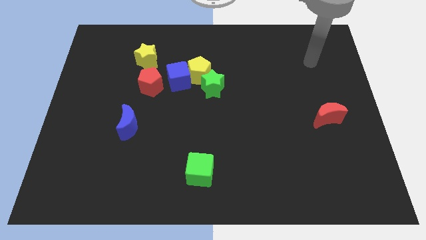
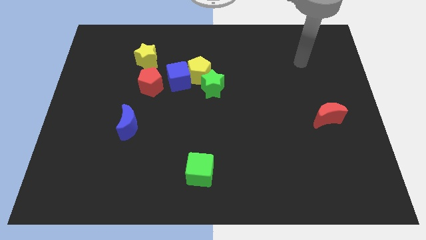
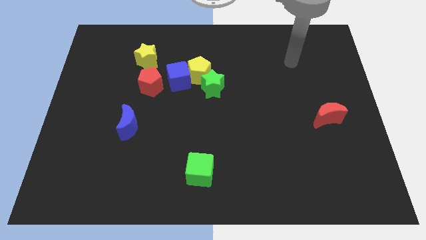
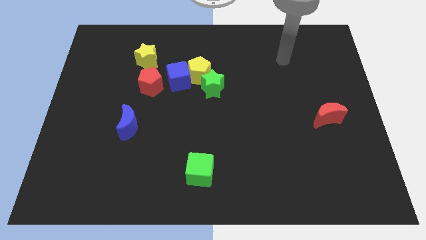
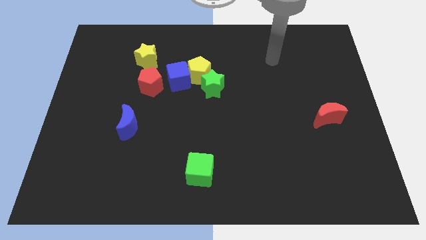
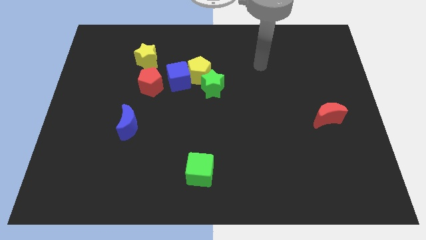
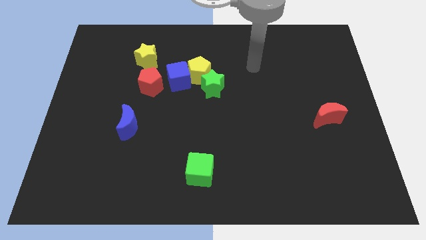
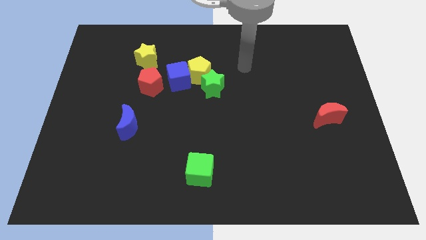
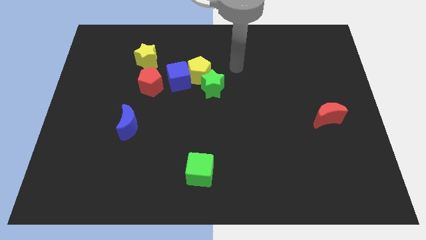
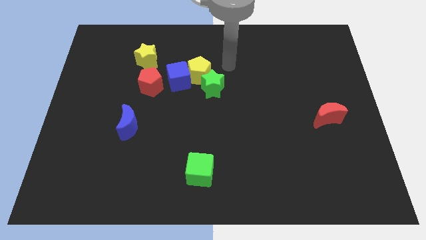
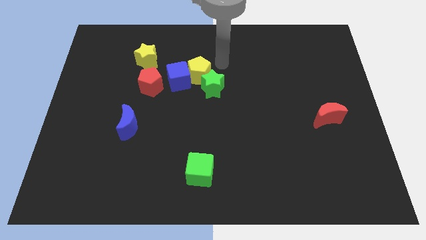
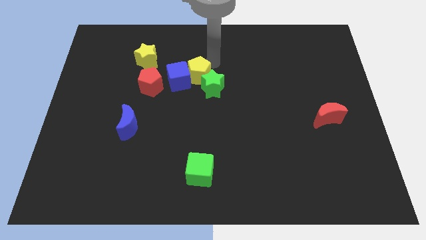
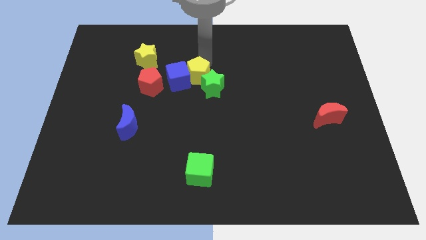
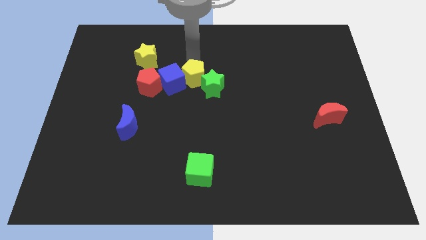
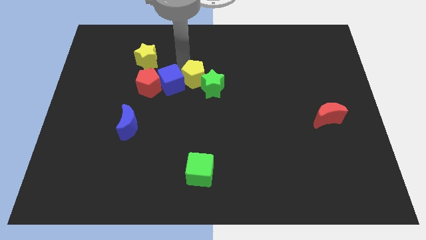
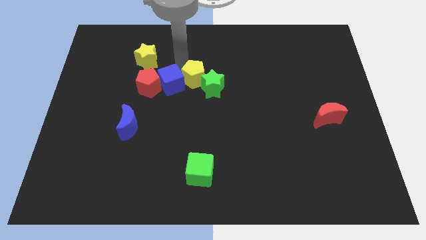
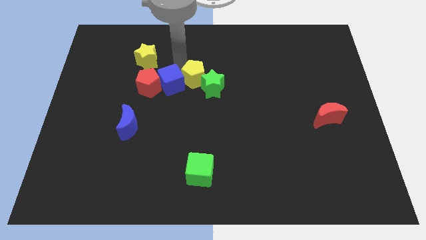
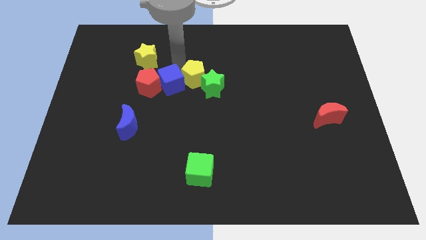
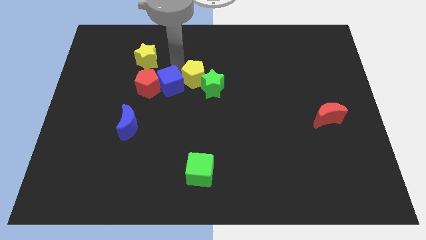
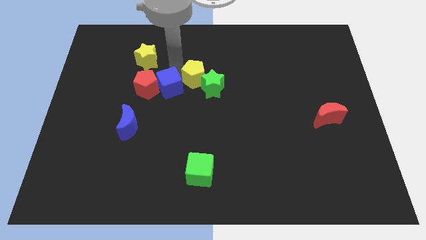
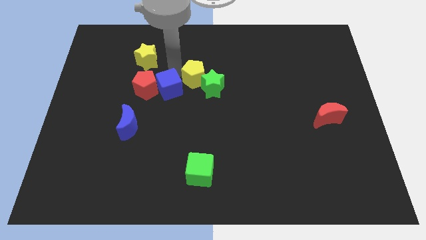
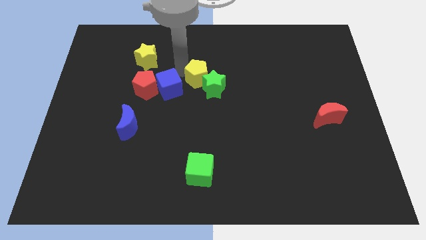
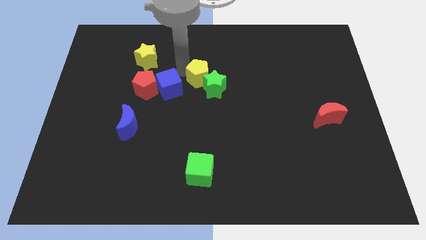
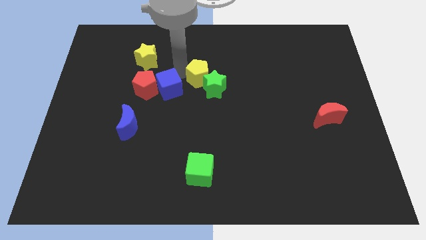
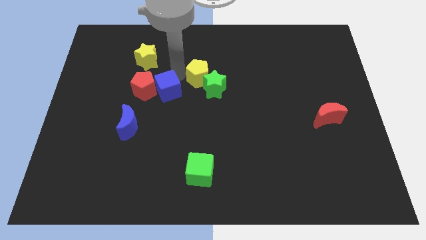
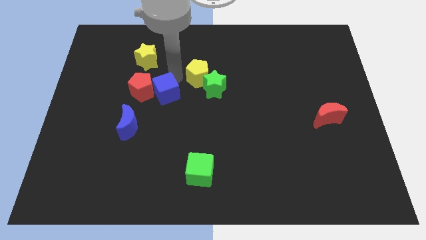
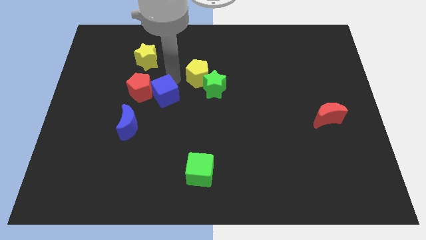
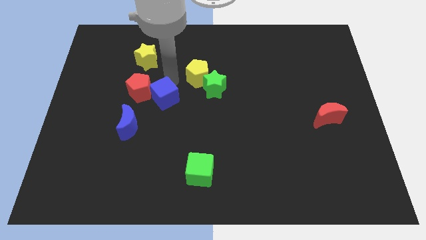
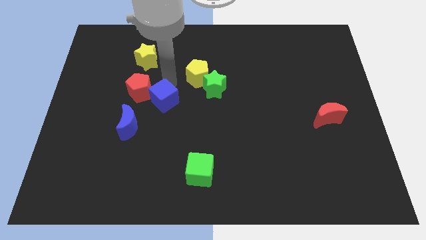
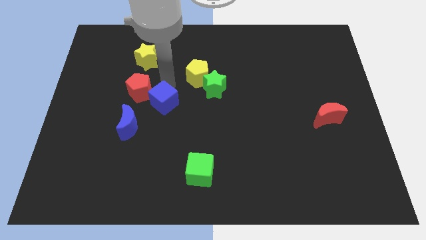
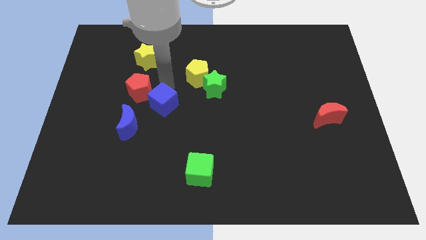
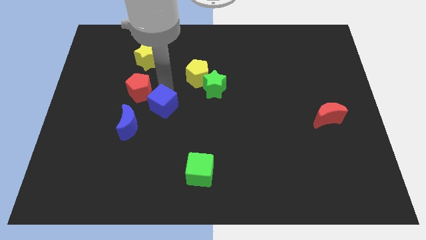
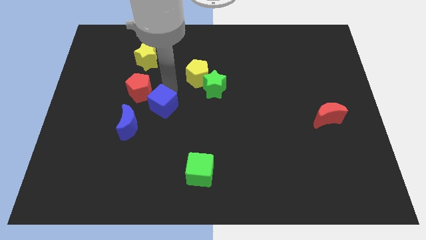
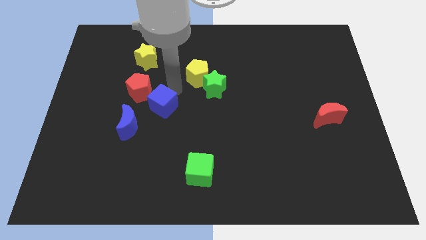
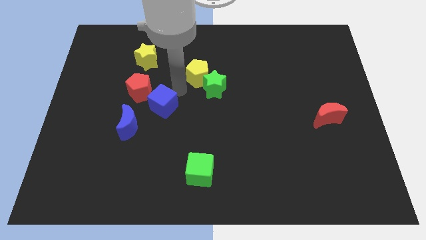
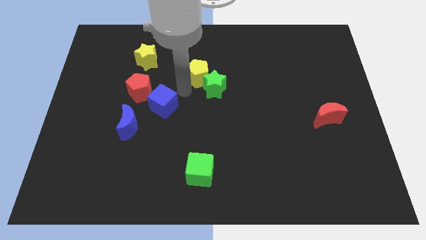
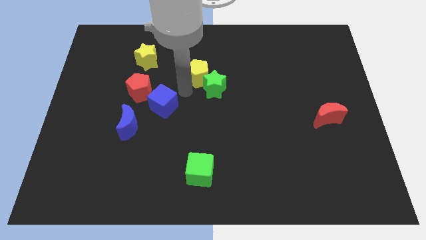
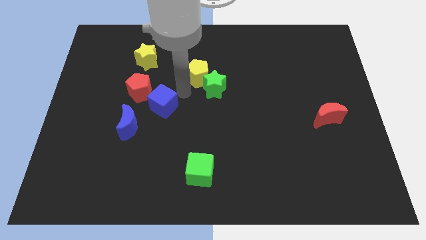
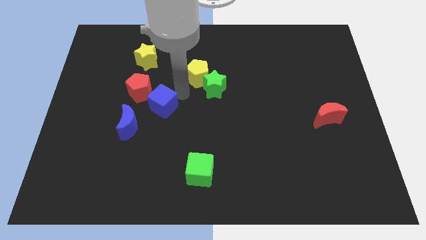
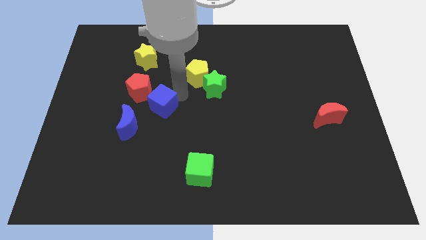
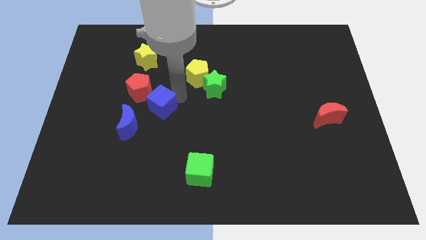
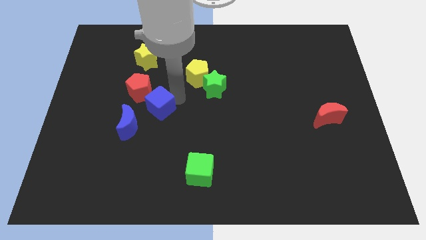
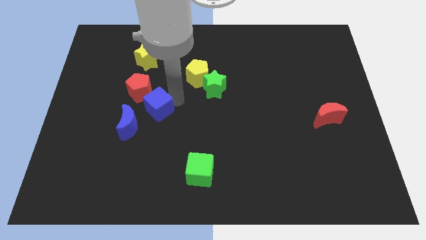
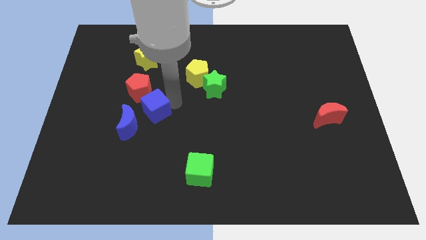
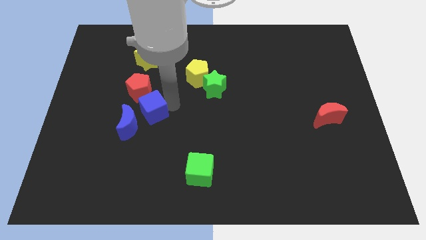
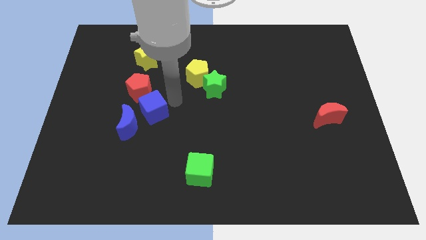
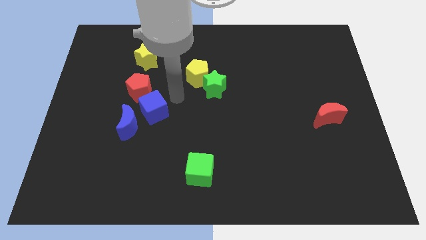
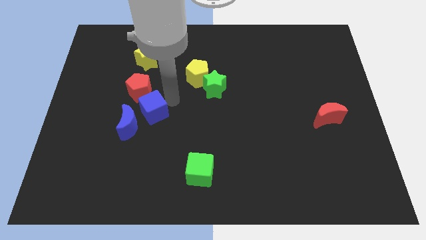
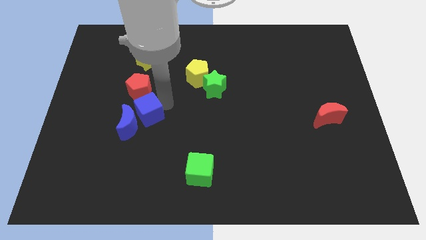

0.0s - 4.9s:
push the blue cube towards the blue moon

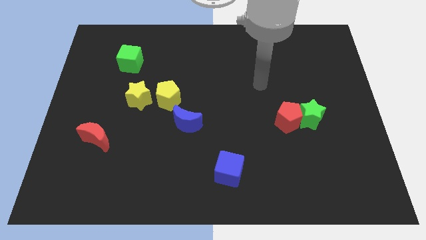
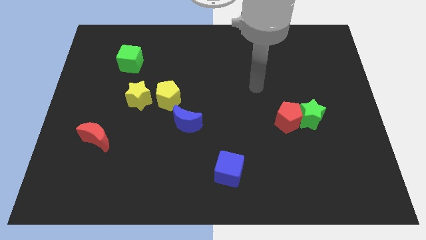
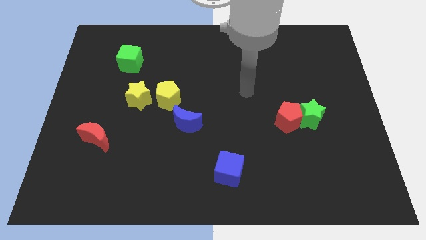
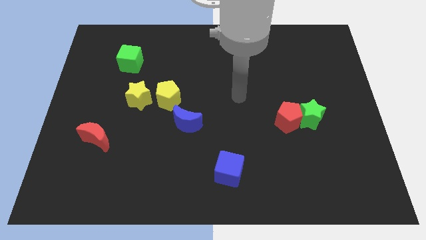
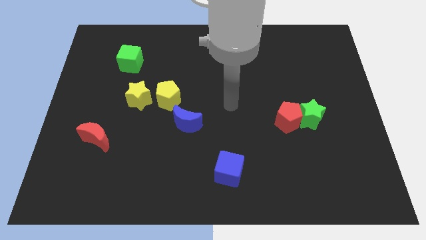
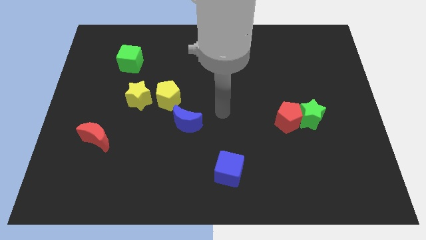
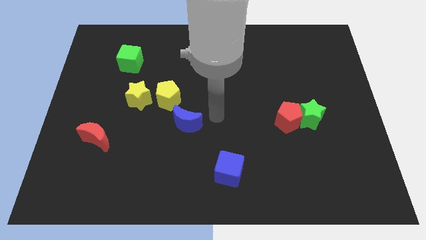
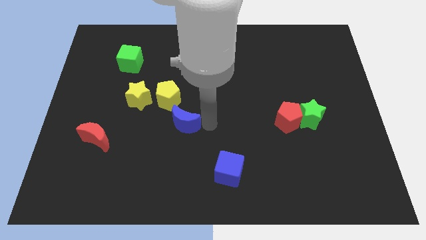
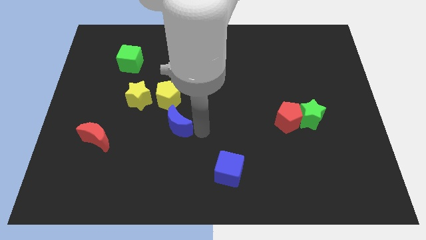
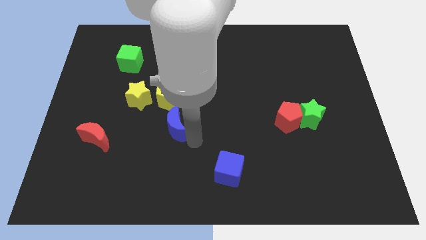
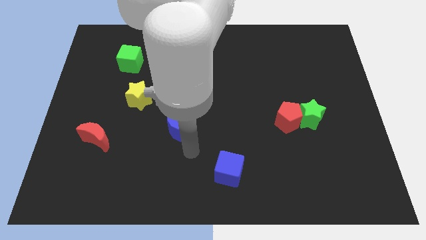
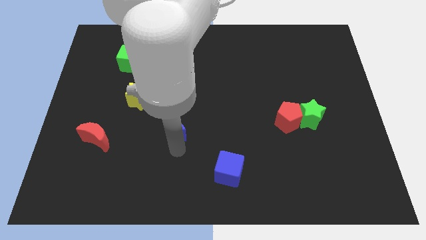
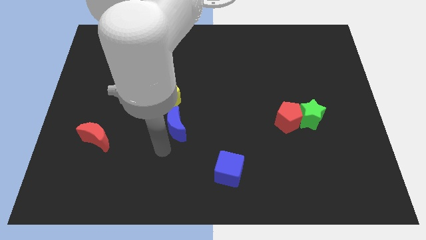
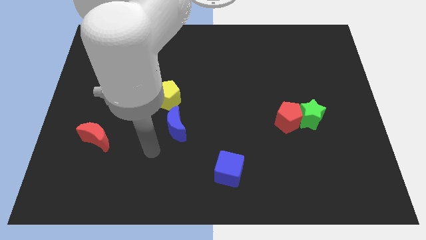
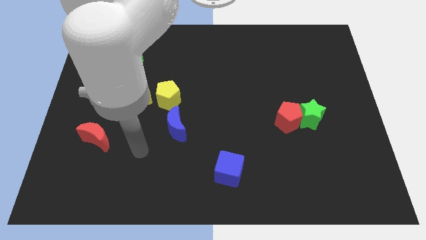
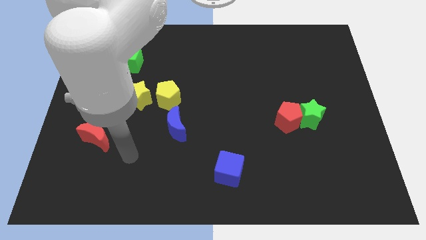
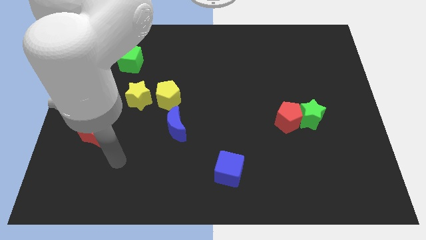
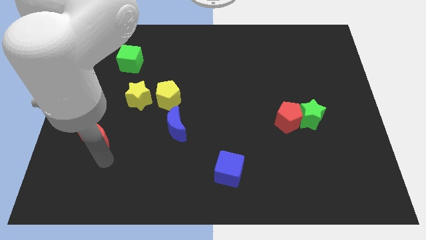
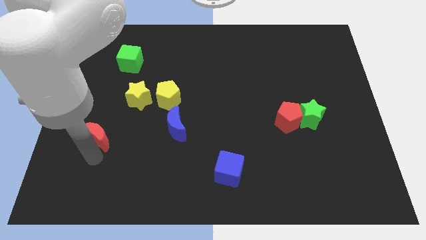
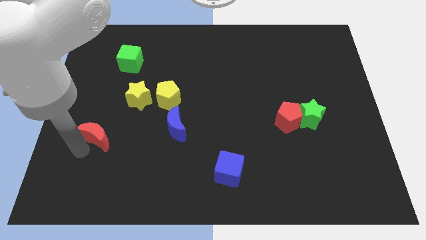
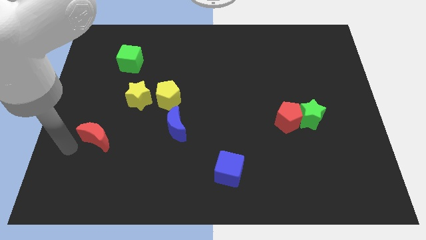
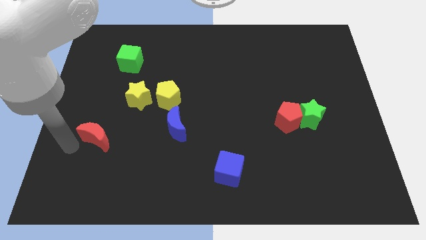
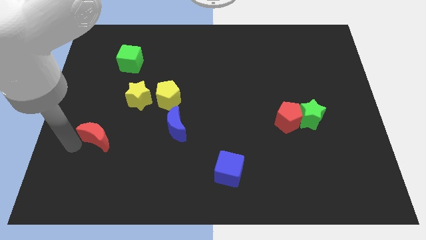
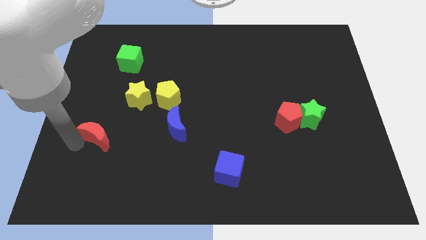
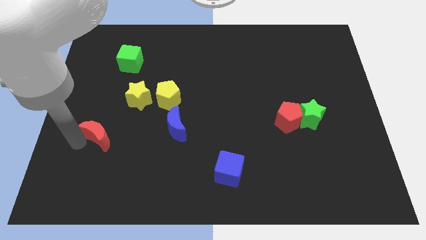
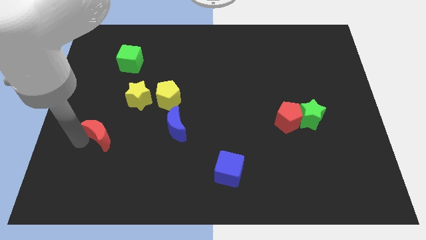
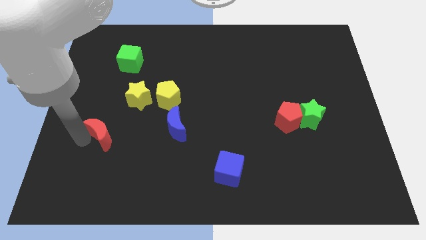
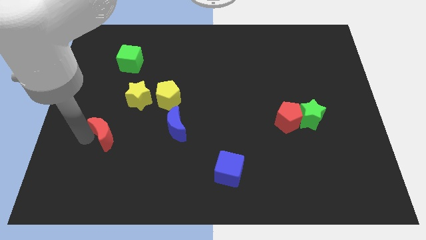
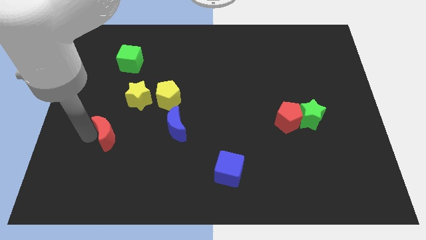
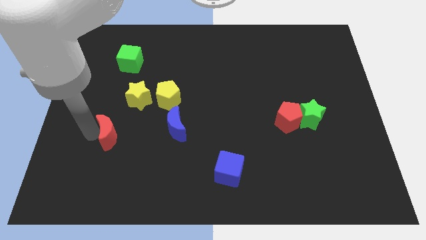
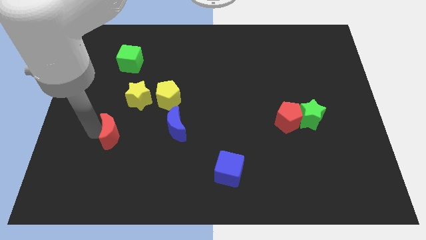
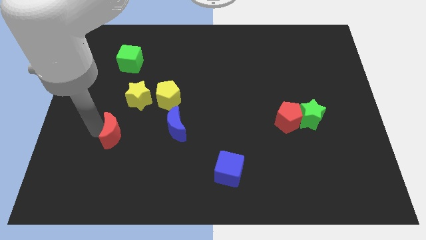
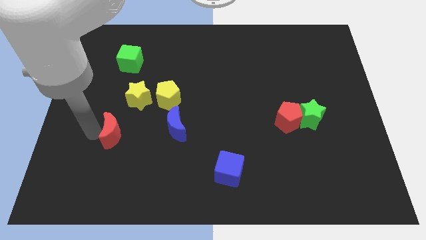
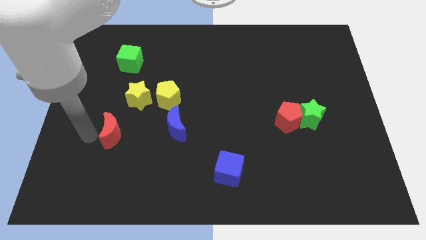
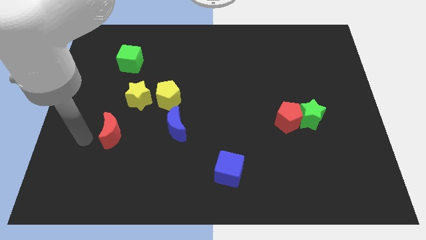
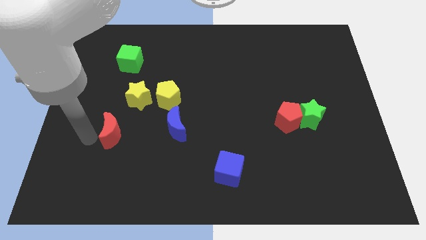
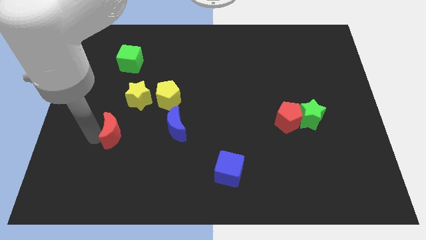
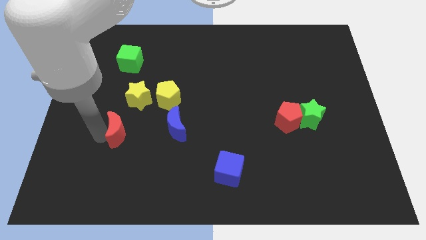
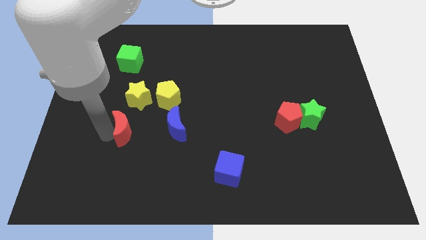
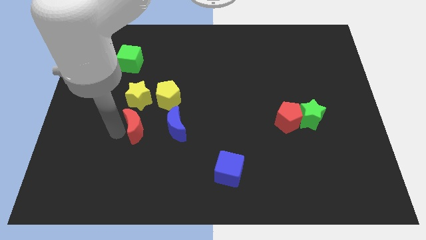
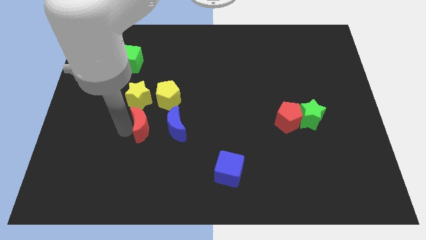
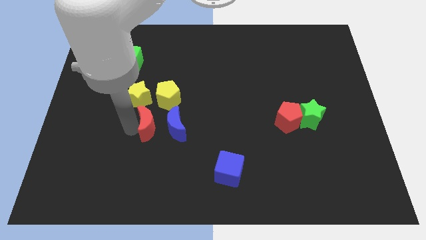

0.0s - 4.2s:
move the red moon close to the blue moon
